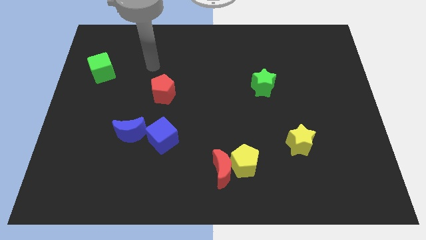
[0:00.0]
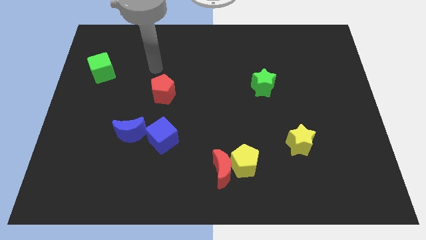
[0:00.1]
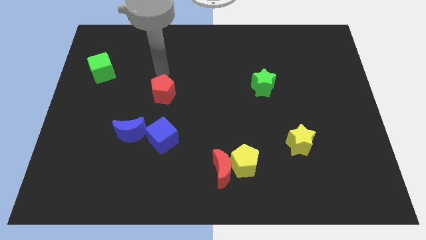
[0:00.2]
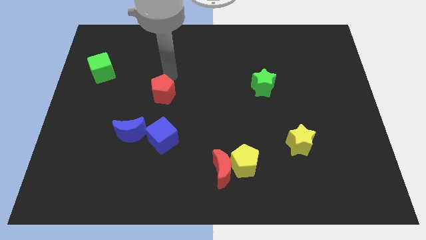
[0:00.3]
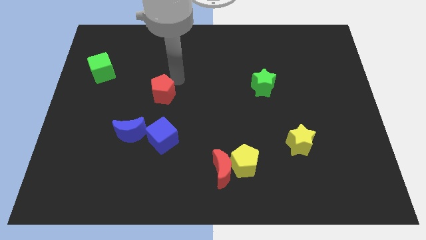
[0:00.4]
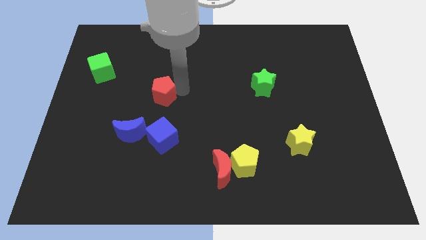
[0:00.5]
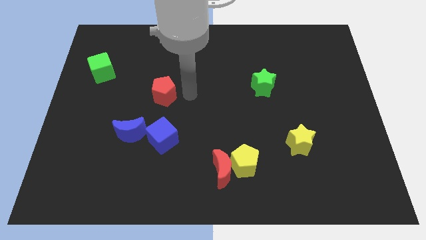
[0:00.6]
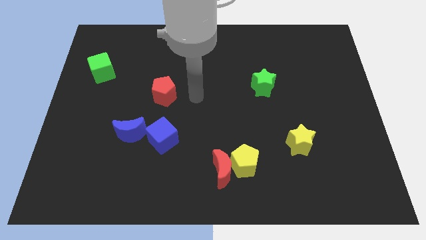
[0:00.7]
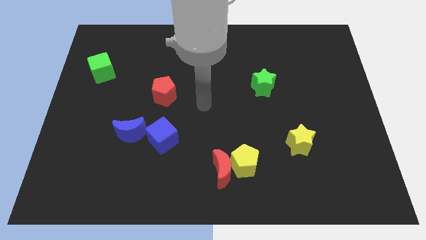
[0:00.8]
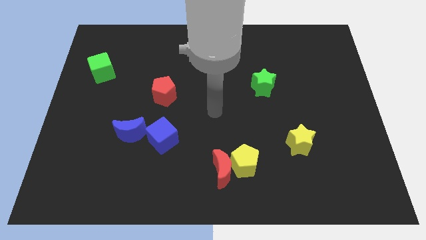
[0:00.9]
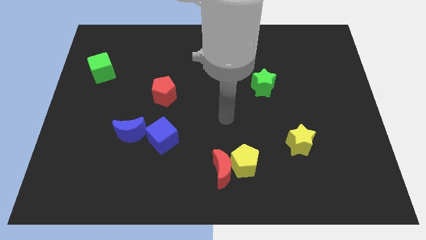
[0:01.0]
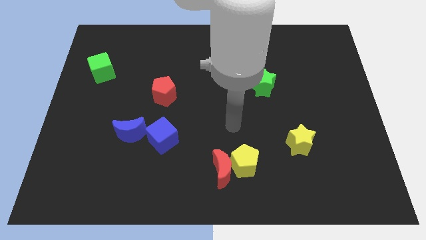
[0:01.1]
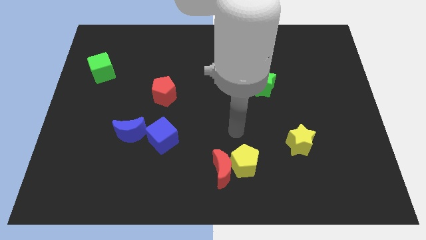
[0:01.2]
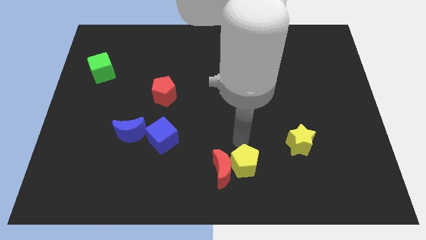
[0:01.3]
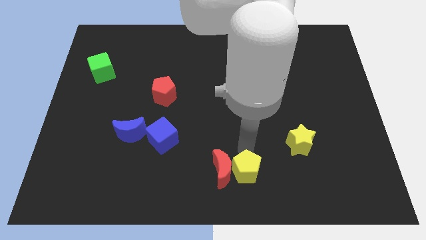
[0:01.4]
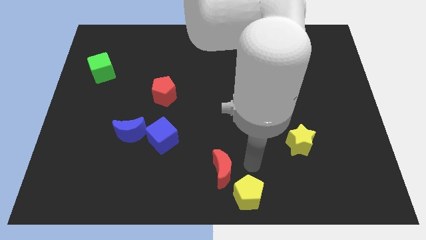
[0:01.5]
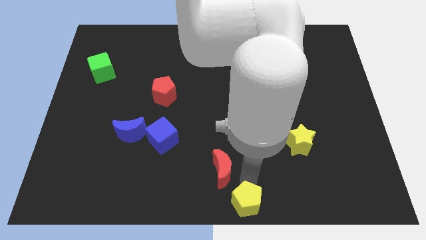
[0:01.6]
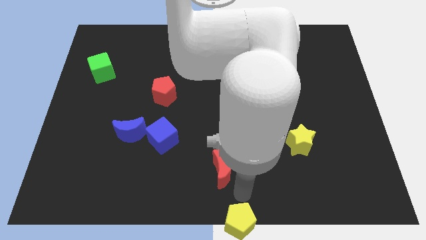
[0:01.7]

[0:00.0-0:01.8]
move the red moon away from the yellow pentagon

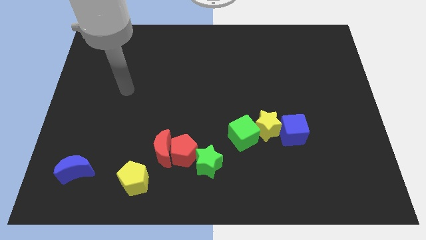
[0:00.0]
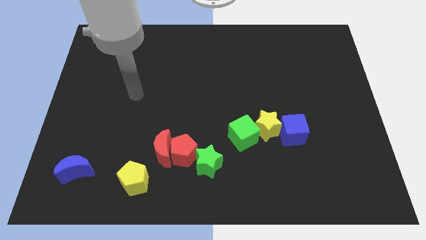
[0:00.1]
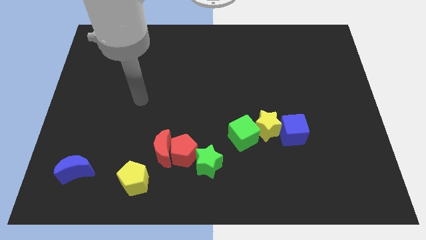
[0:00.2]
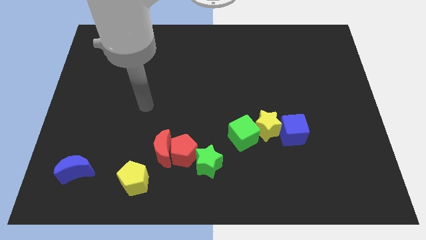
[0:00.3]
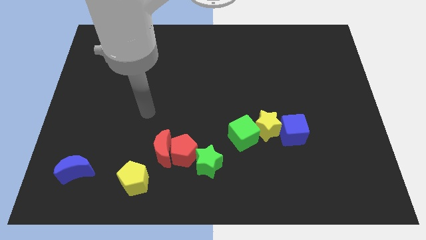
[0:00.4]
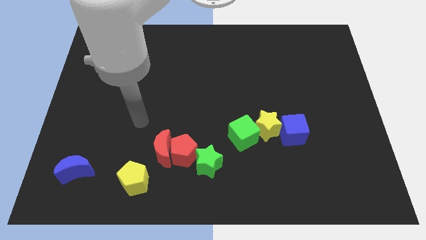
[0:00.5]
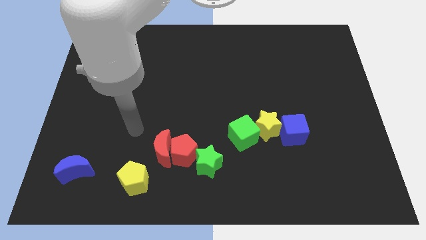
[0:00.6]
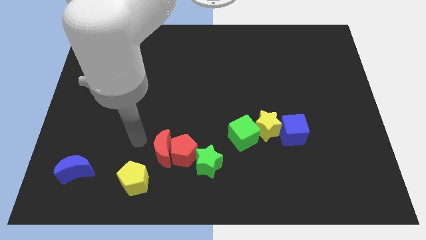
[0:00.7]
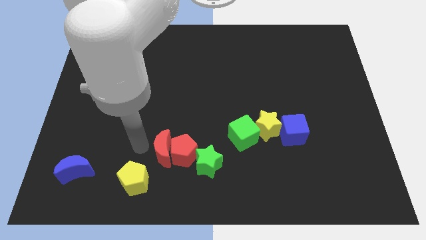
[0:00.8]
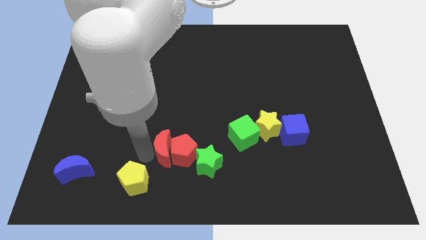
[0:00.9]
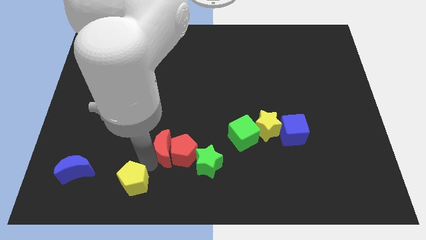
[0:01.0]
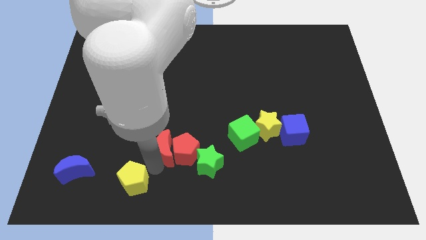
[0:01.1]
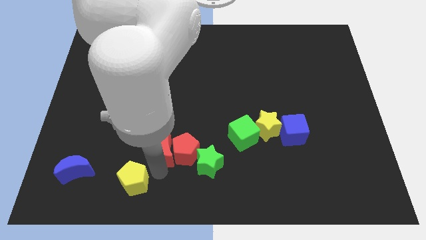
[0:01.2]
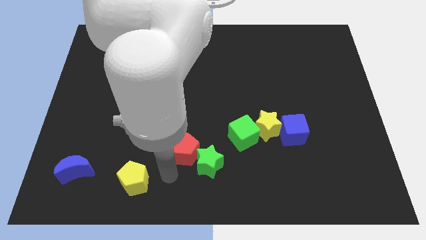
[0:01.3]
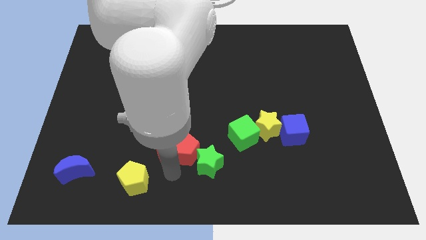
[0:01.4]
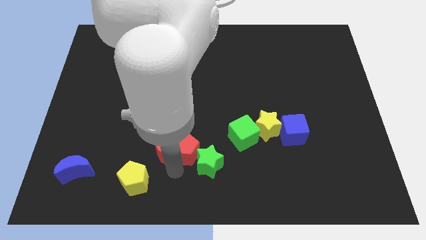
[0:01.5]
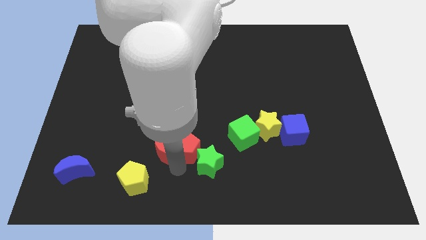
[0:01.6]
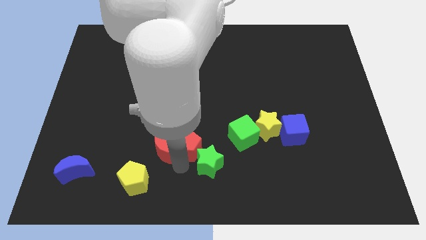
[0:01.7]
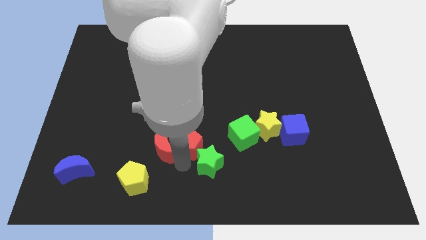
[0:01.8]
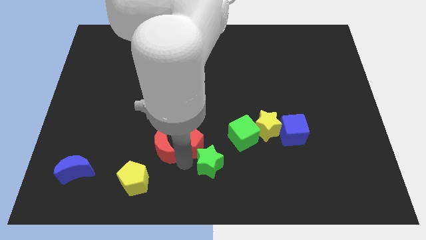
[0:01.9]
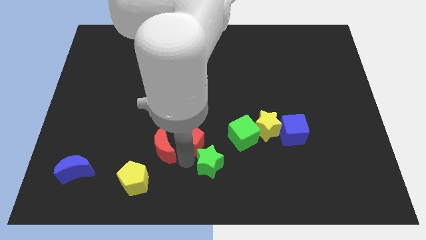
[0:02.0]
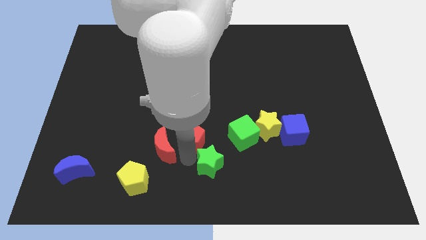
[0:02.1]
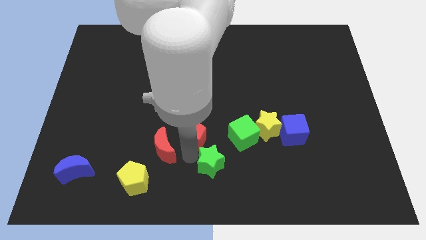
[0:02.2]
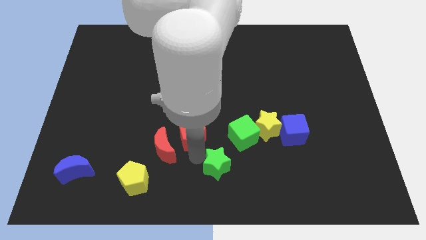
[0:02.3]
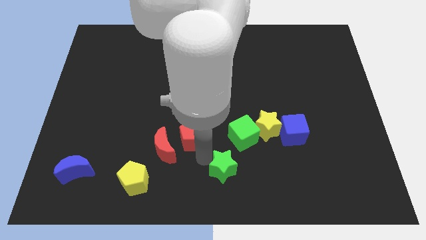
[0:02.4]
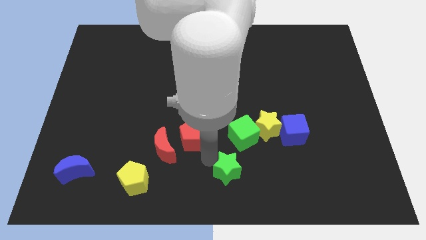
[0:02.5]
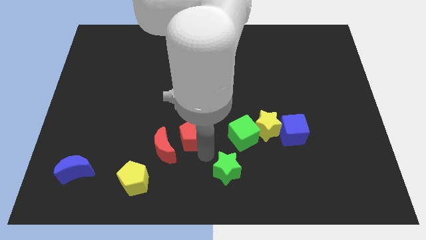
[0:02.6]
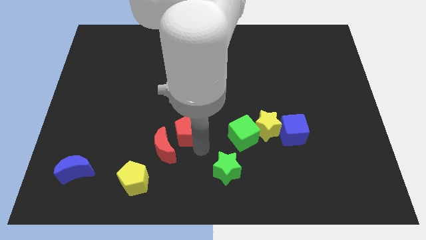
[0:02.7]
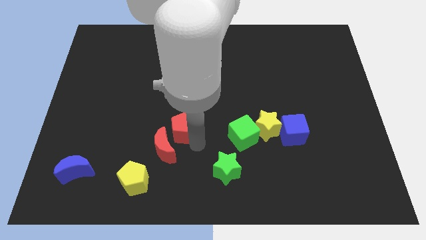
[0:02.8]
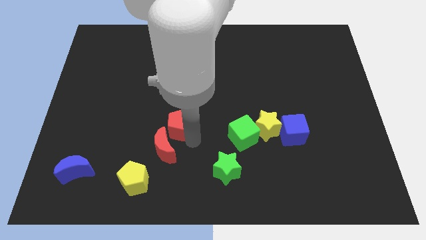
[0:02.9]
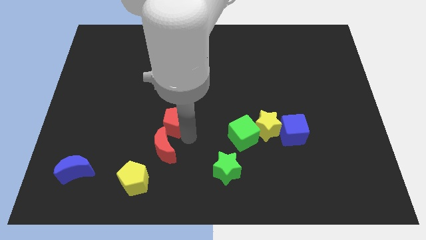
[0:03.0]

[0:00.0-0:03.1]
pull the red pentagon apart from the red moon and green star

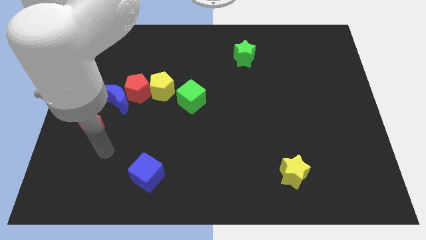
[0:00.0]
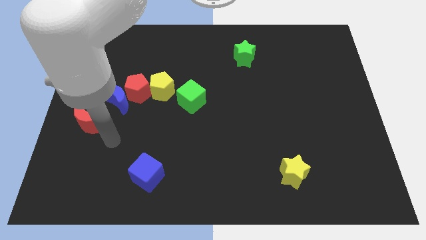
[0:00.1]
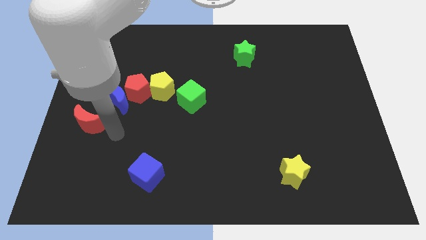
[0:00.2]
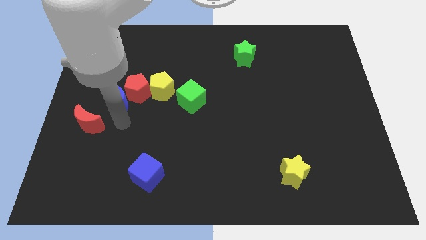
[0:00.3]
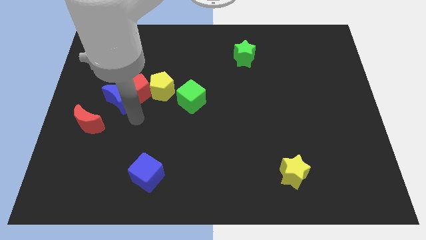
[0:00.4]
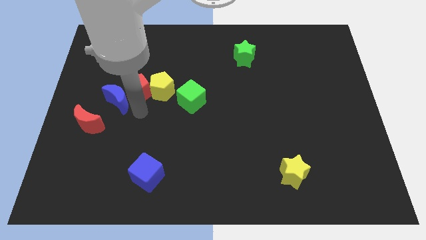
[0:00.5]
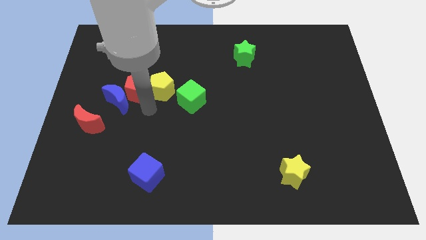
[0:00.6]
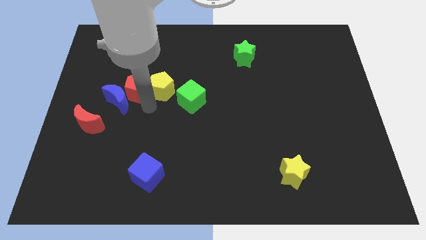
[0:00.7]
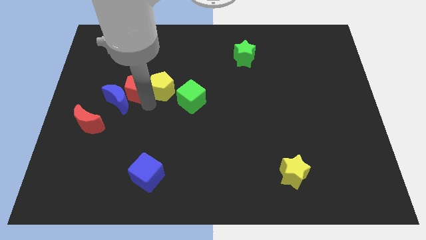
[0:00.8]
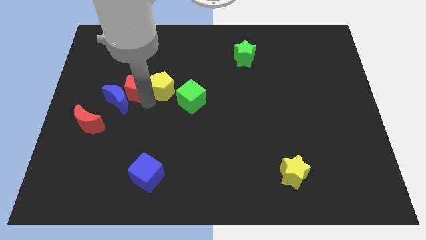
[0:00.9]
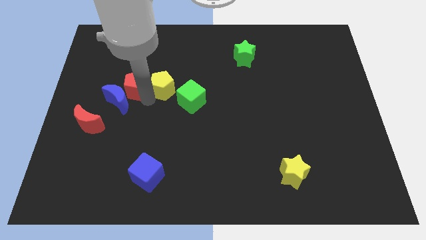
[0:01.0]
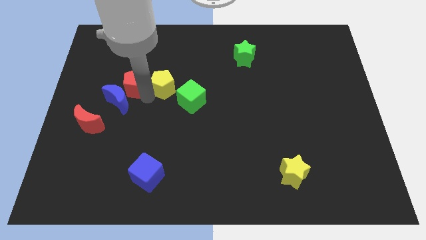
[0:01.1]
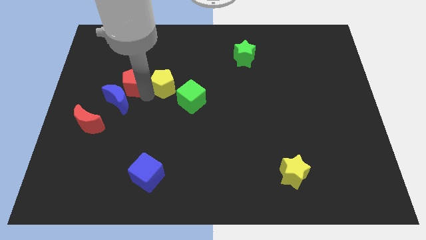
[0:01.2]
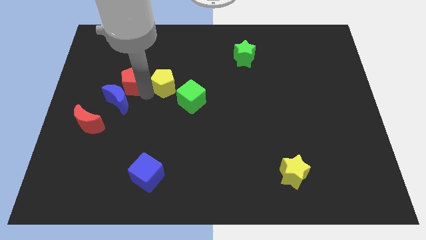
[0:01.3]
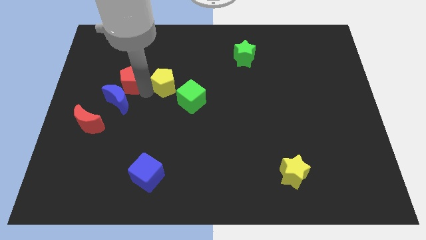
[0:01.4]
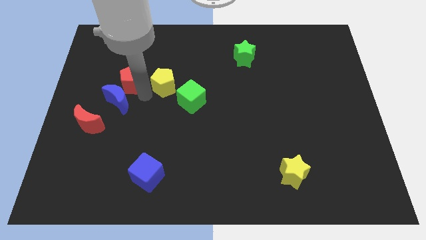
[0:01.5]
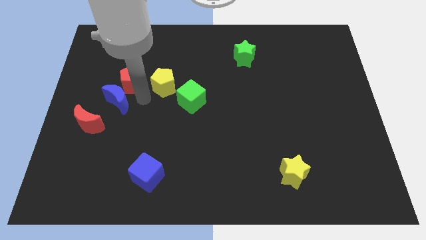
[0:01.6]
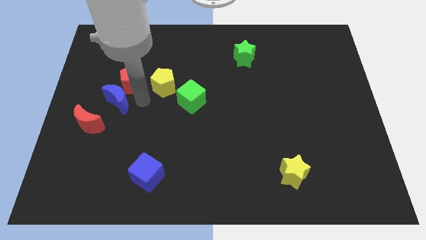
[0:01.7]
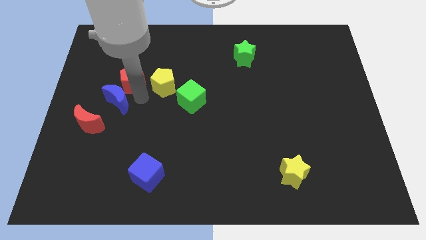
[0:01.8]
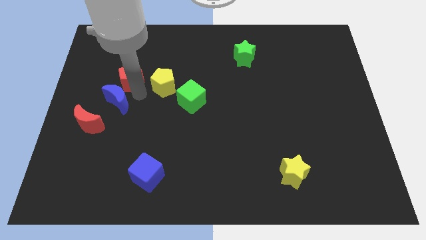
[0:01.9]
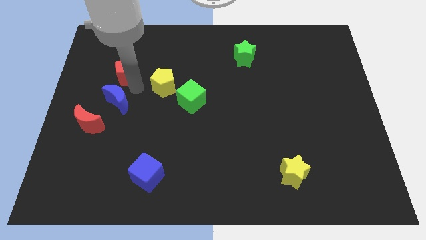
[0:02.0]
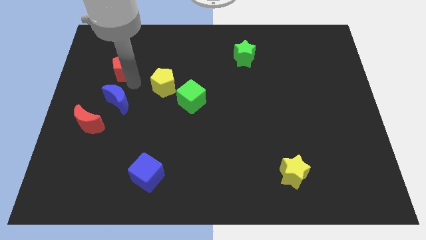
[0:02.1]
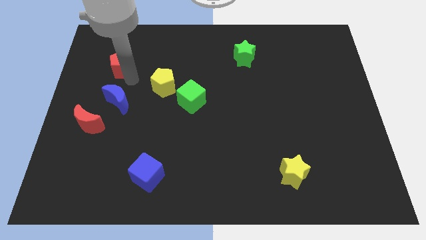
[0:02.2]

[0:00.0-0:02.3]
separate the red pentagon from the blue moon and yellow pentagon

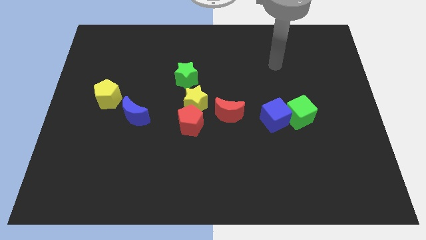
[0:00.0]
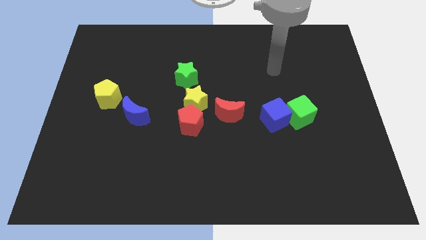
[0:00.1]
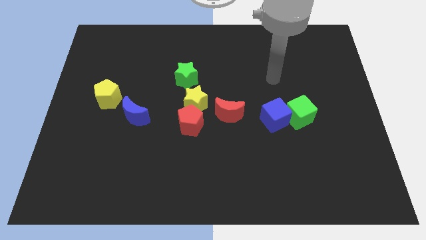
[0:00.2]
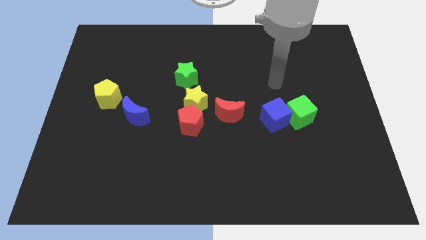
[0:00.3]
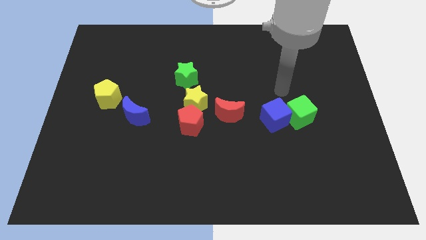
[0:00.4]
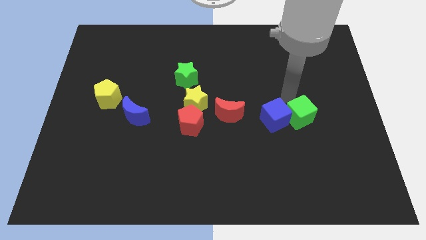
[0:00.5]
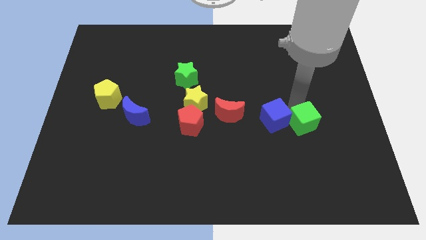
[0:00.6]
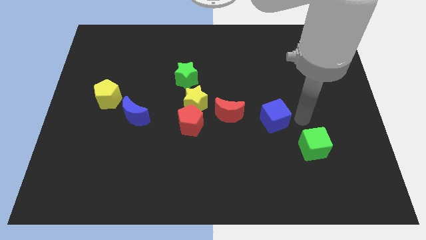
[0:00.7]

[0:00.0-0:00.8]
move the blue cube away from the green cube

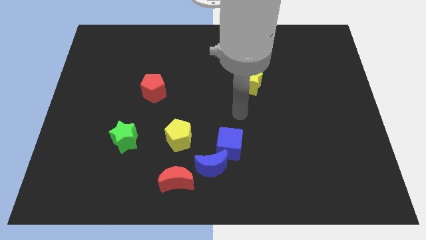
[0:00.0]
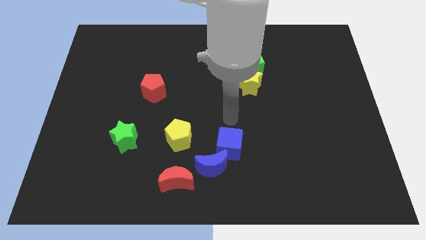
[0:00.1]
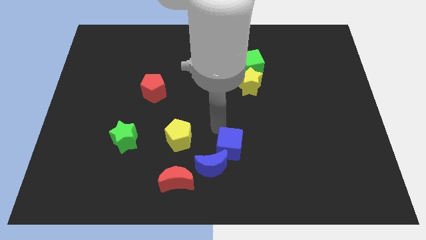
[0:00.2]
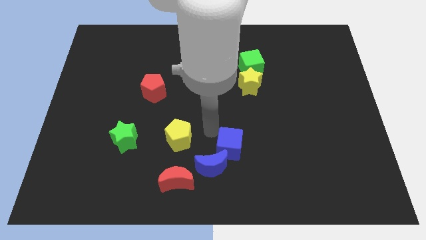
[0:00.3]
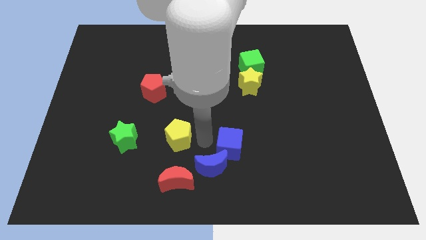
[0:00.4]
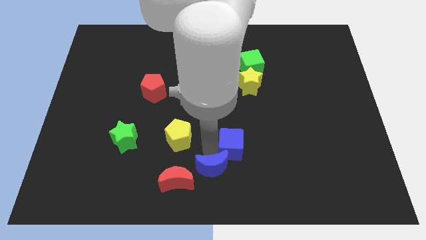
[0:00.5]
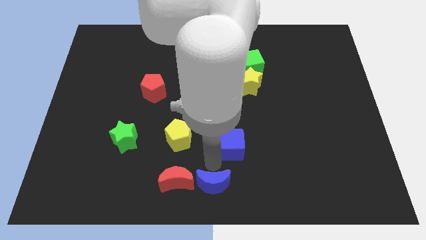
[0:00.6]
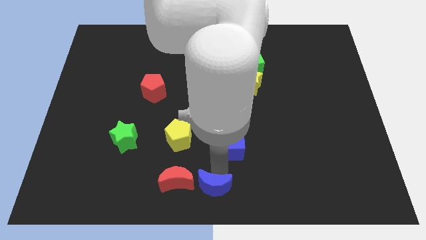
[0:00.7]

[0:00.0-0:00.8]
pull the blue cube apart from the blue moon

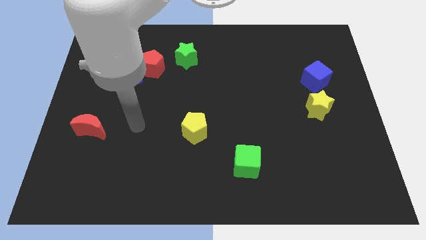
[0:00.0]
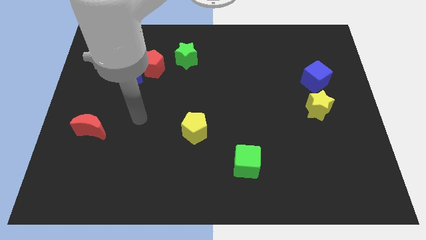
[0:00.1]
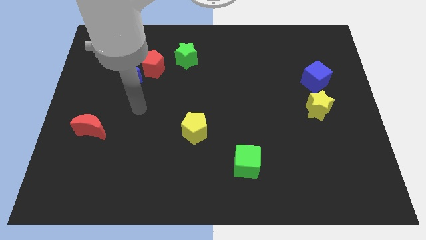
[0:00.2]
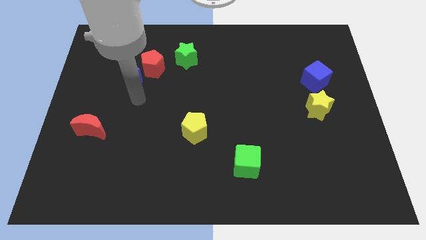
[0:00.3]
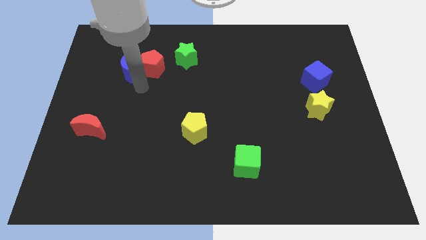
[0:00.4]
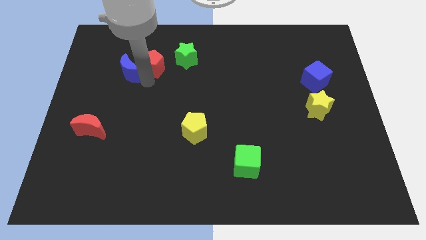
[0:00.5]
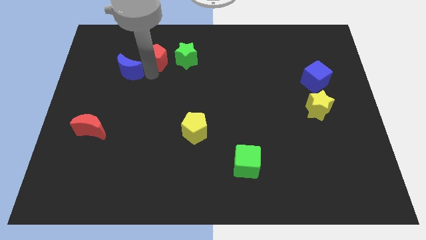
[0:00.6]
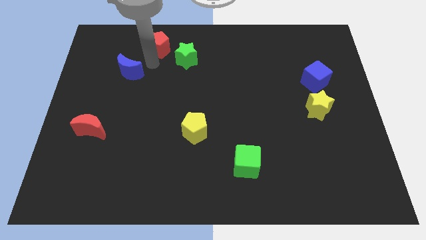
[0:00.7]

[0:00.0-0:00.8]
pull the blue moon apart from the red pentagon
